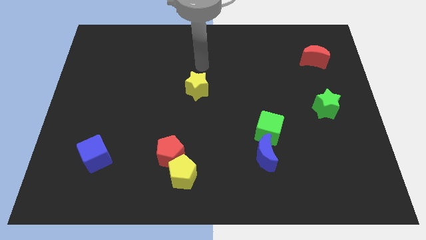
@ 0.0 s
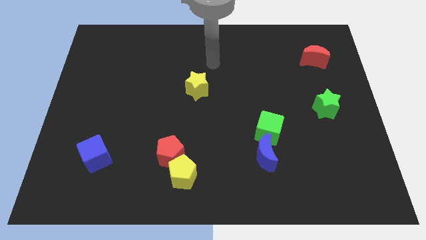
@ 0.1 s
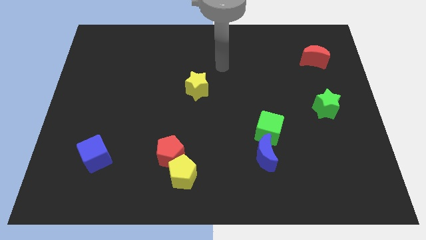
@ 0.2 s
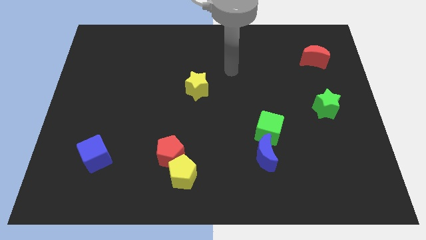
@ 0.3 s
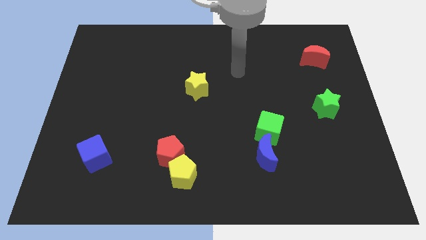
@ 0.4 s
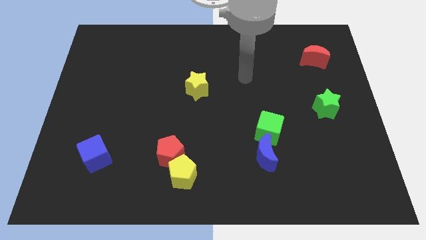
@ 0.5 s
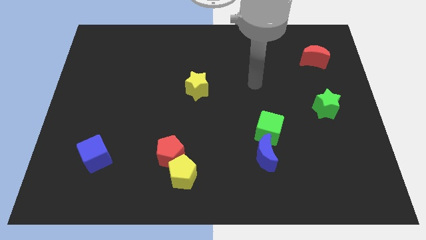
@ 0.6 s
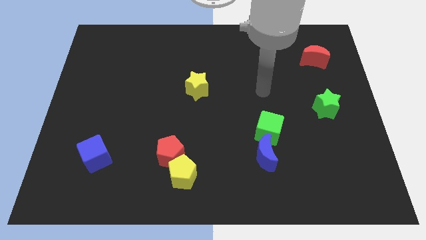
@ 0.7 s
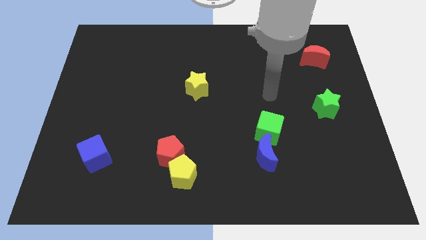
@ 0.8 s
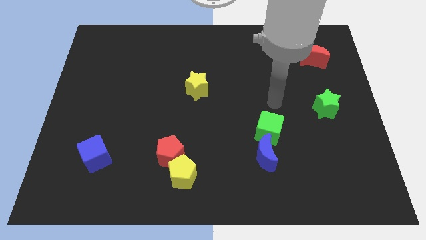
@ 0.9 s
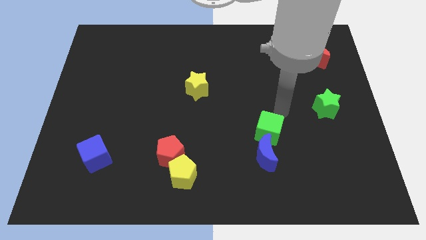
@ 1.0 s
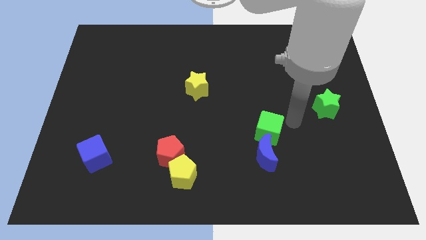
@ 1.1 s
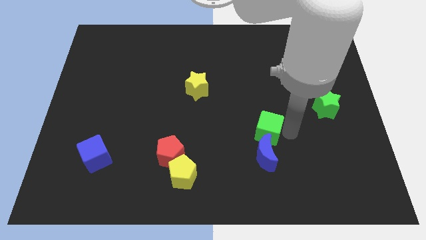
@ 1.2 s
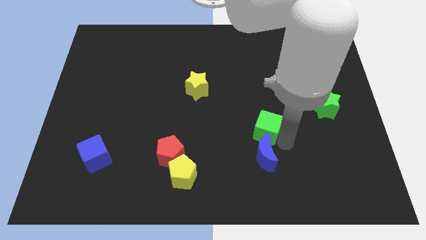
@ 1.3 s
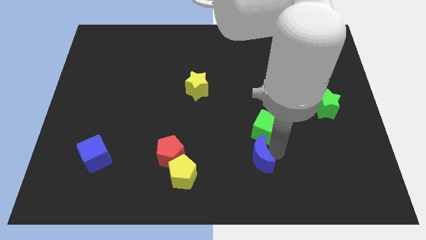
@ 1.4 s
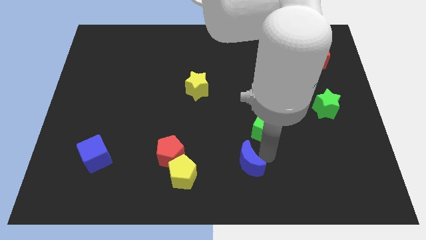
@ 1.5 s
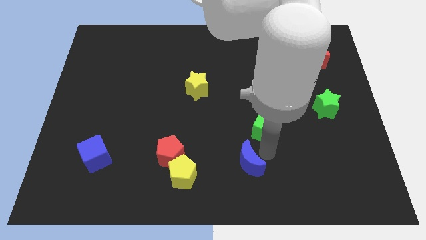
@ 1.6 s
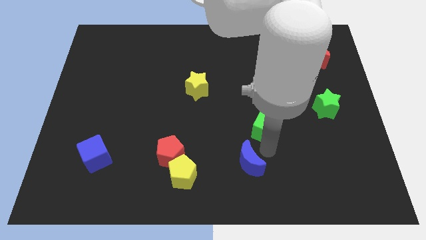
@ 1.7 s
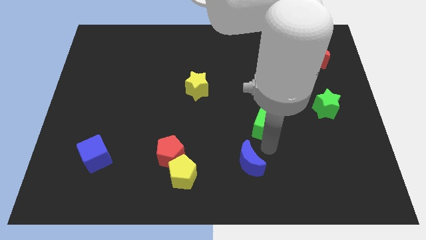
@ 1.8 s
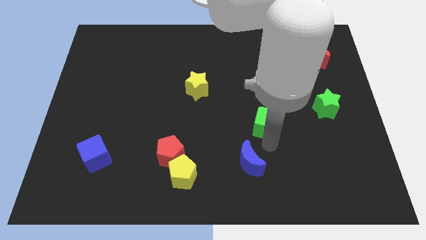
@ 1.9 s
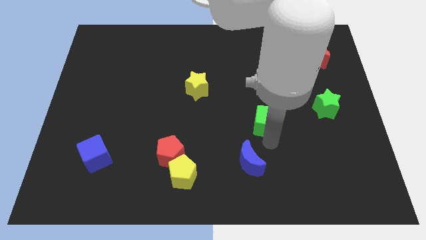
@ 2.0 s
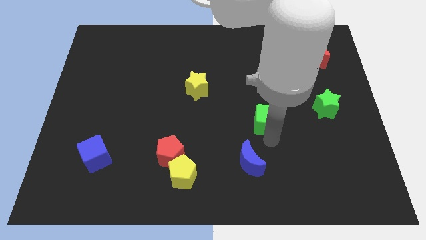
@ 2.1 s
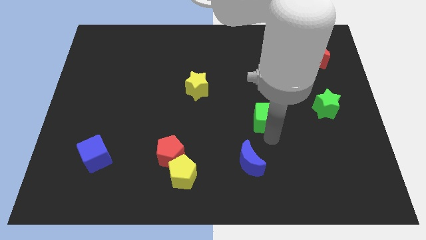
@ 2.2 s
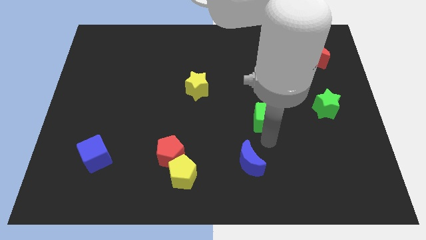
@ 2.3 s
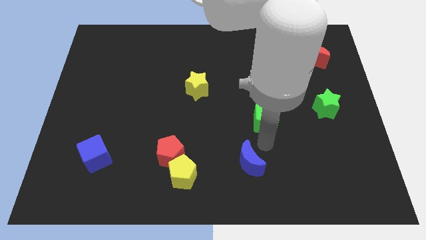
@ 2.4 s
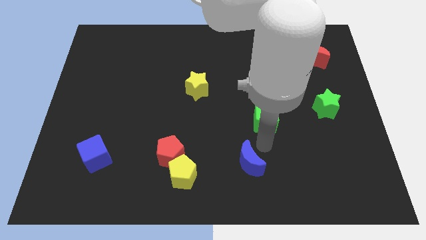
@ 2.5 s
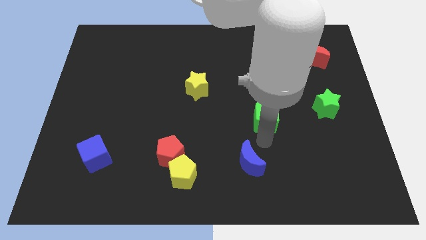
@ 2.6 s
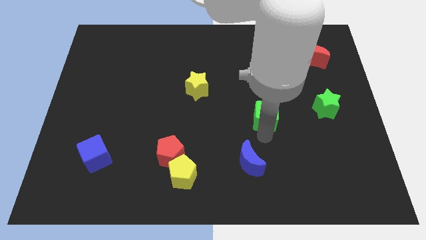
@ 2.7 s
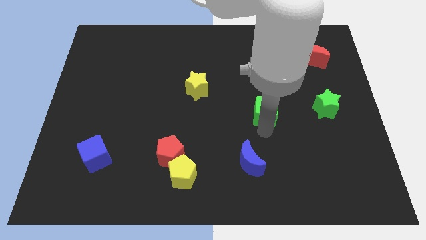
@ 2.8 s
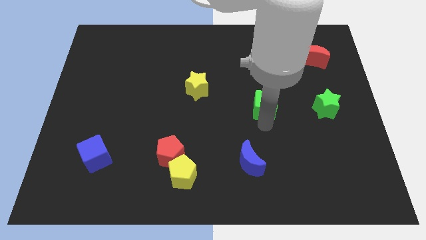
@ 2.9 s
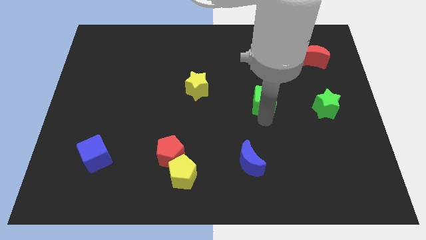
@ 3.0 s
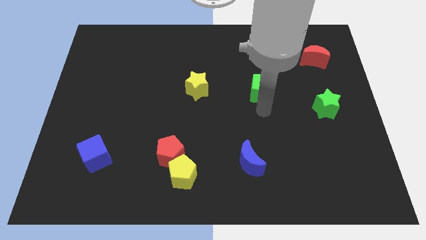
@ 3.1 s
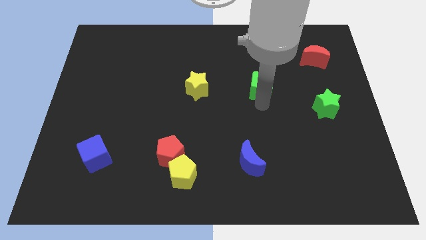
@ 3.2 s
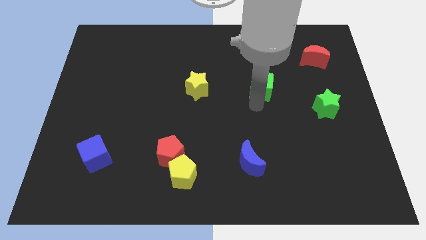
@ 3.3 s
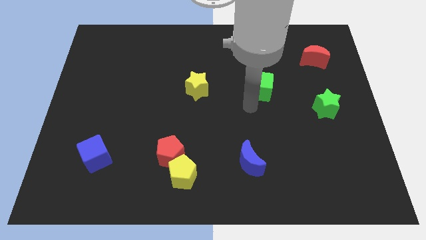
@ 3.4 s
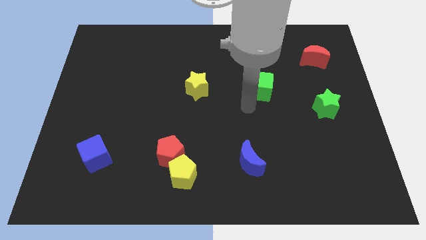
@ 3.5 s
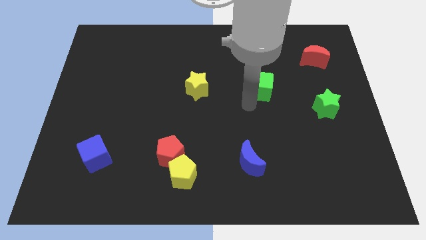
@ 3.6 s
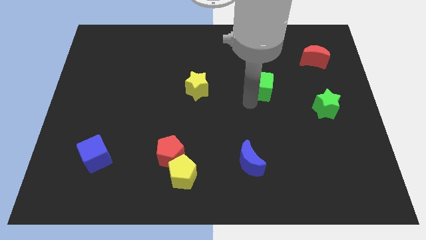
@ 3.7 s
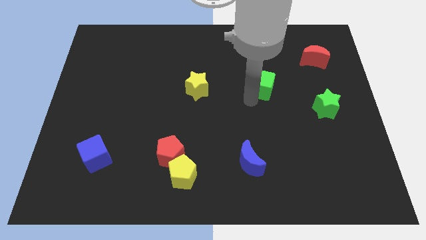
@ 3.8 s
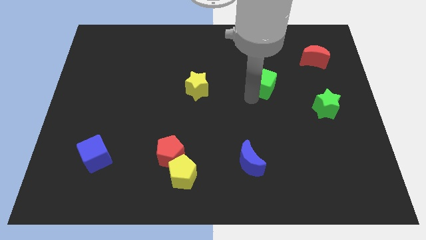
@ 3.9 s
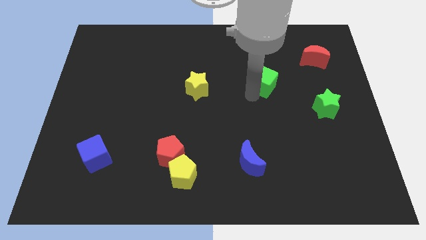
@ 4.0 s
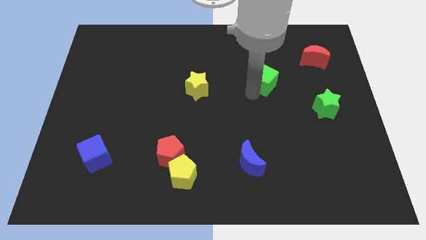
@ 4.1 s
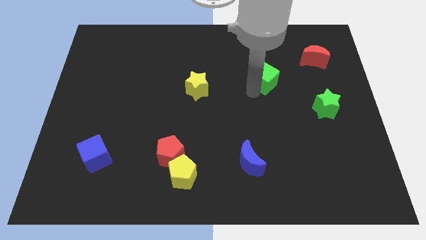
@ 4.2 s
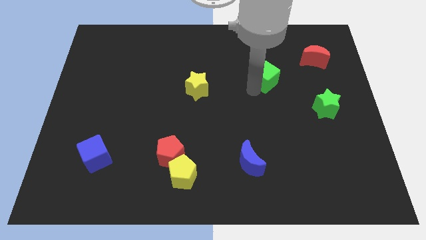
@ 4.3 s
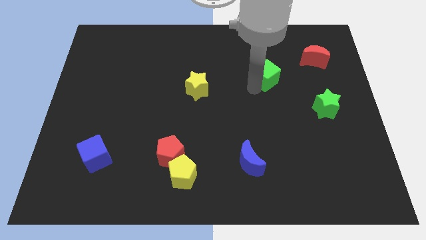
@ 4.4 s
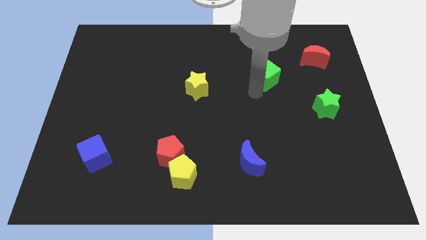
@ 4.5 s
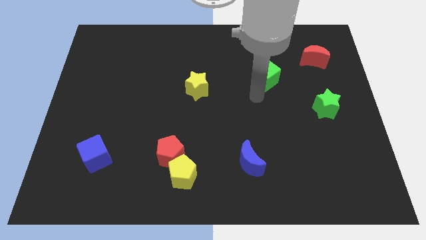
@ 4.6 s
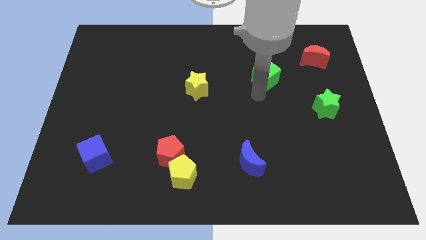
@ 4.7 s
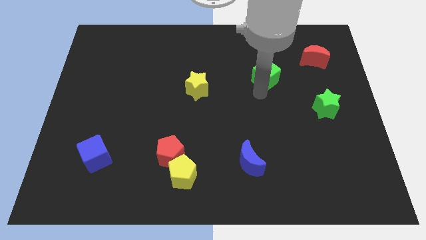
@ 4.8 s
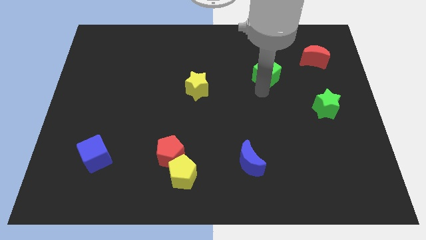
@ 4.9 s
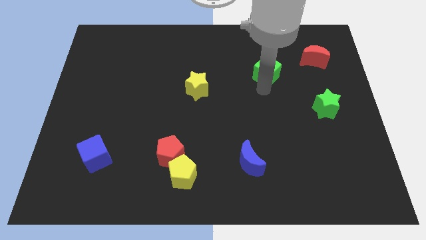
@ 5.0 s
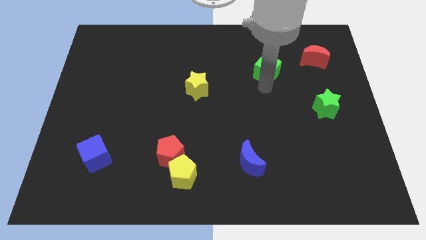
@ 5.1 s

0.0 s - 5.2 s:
push the green cube to the left side of the red moon

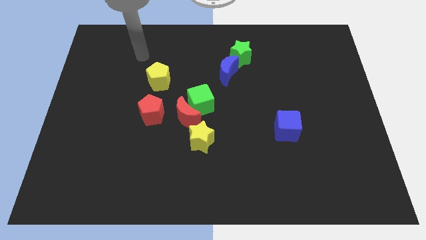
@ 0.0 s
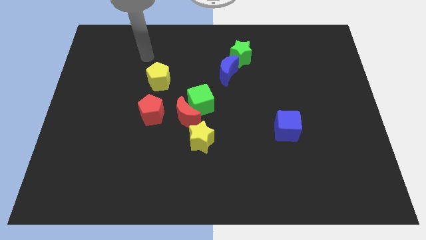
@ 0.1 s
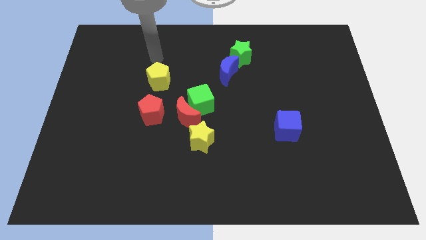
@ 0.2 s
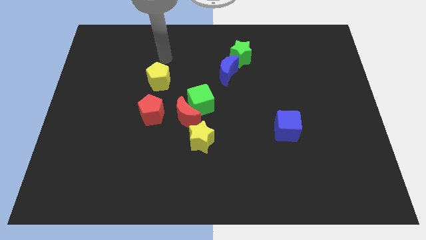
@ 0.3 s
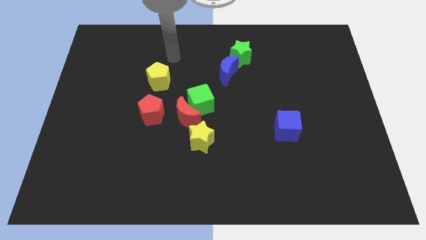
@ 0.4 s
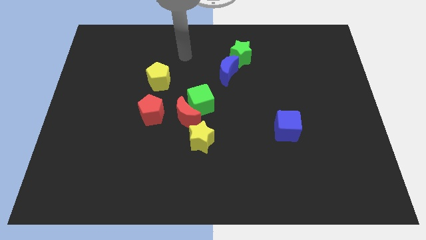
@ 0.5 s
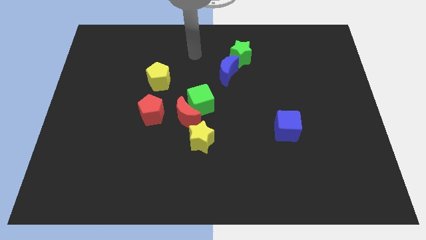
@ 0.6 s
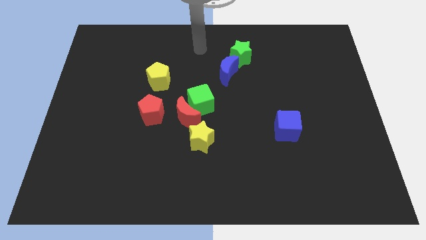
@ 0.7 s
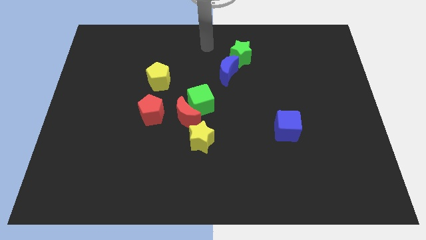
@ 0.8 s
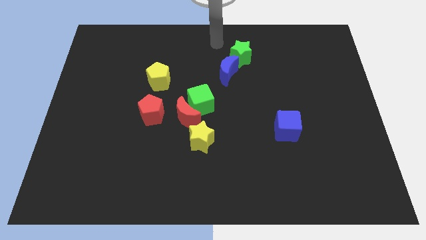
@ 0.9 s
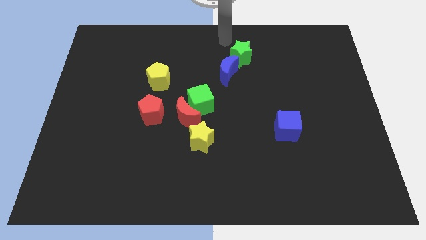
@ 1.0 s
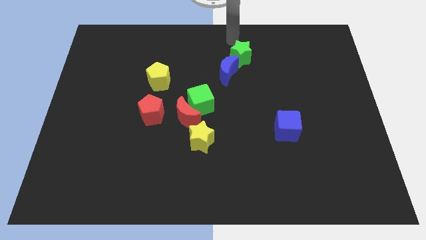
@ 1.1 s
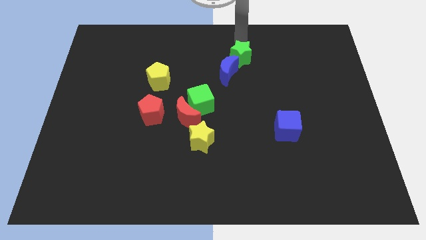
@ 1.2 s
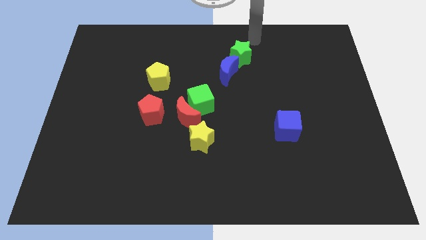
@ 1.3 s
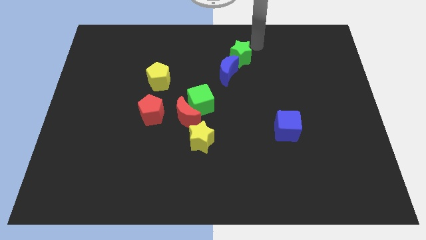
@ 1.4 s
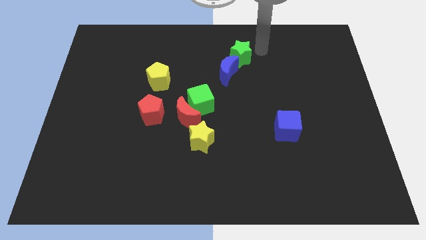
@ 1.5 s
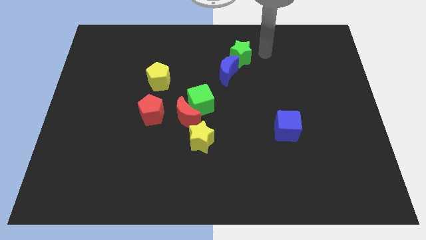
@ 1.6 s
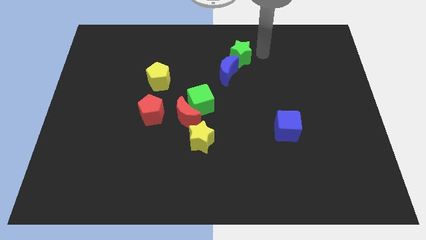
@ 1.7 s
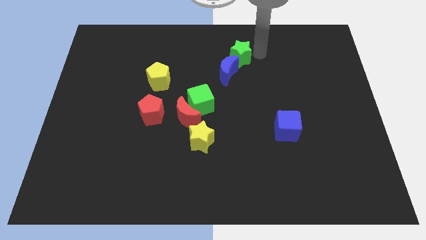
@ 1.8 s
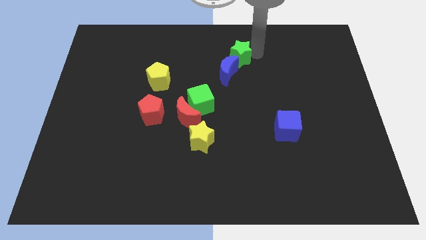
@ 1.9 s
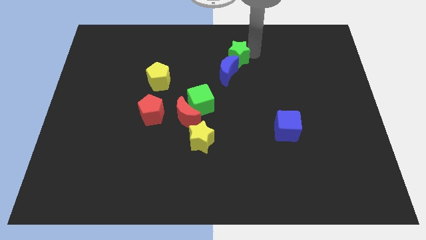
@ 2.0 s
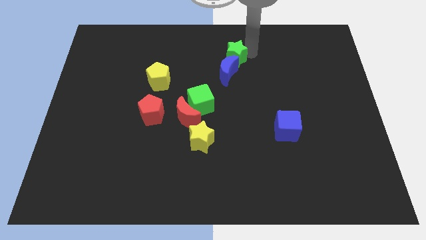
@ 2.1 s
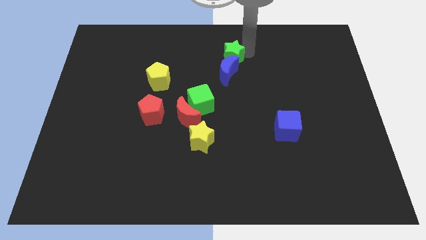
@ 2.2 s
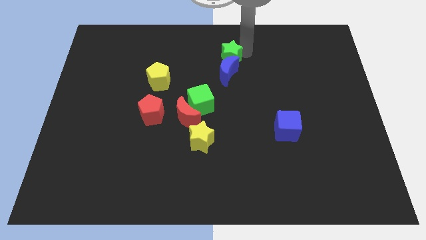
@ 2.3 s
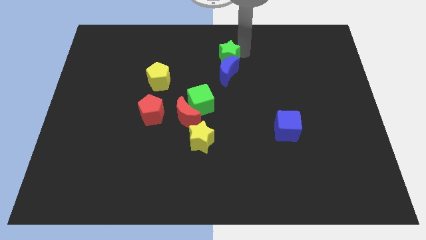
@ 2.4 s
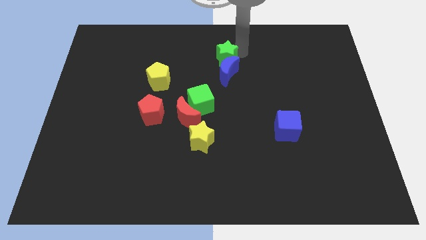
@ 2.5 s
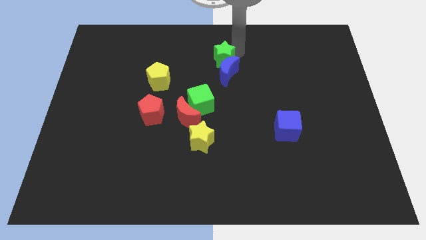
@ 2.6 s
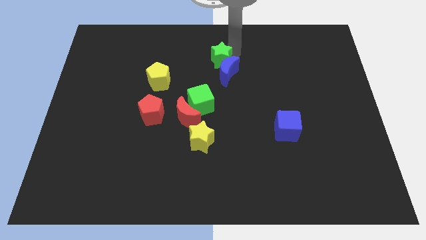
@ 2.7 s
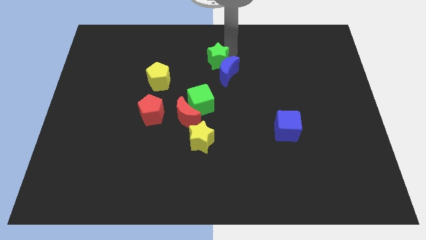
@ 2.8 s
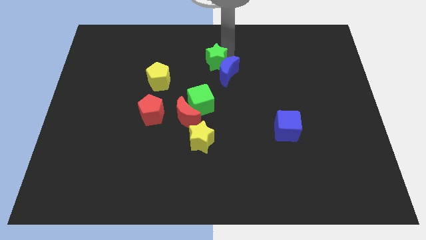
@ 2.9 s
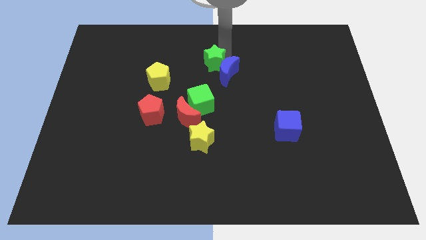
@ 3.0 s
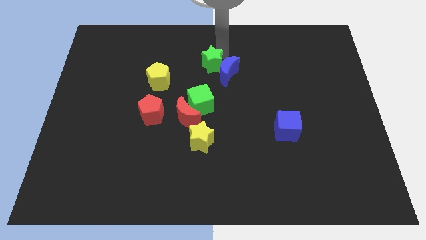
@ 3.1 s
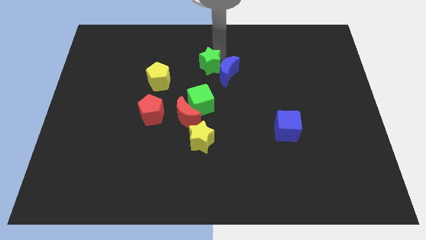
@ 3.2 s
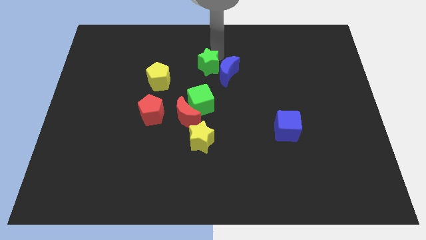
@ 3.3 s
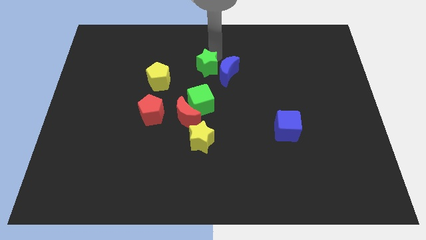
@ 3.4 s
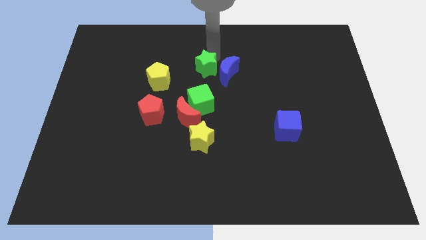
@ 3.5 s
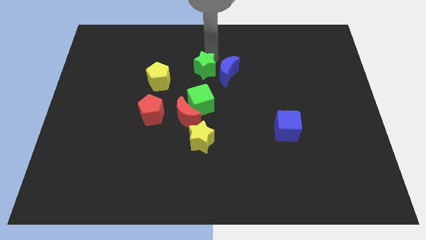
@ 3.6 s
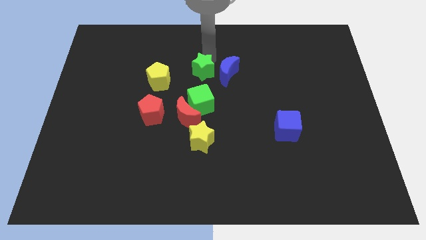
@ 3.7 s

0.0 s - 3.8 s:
put the green star to the bottom left of the blue moon
